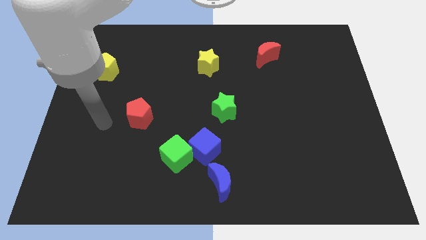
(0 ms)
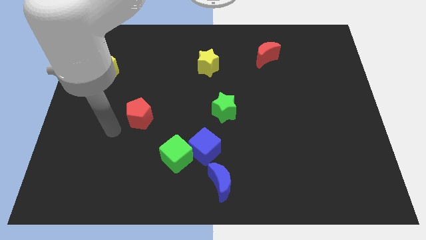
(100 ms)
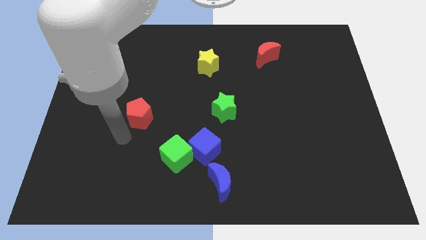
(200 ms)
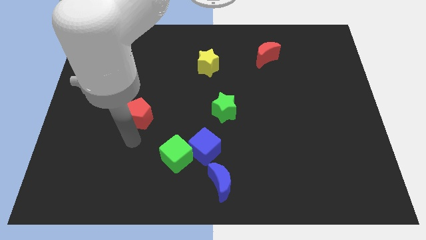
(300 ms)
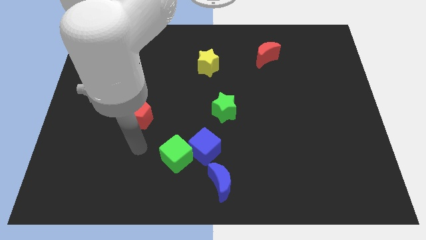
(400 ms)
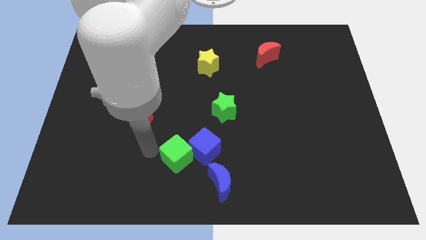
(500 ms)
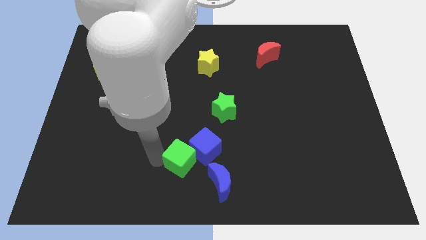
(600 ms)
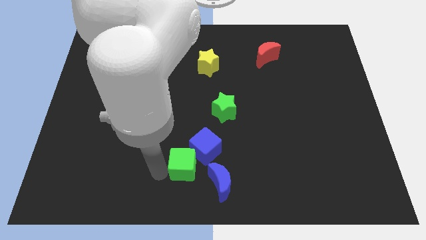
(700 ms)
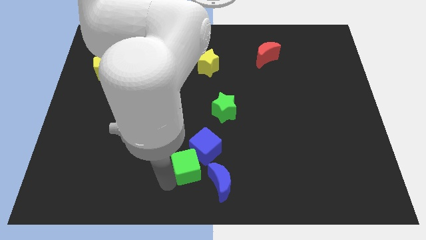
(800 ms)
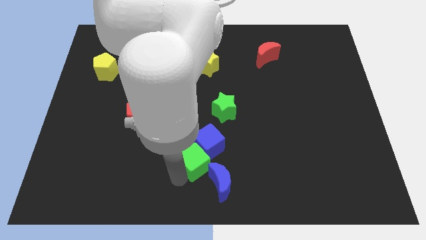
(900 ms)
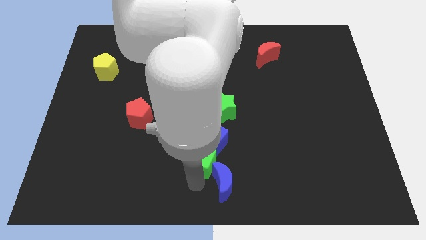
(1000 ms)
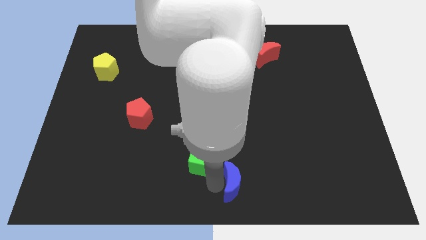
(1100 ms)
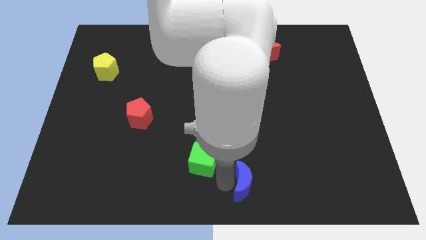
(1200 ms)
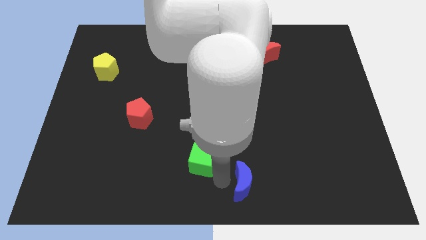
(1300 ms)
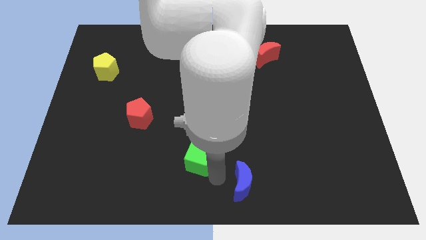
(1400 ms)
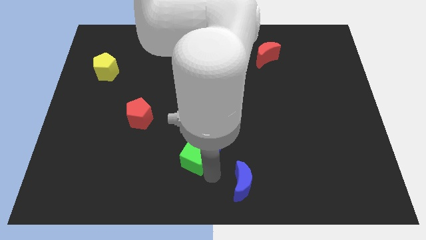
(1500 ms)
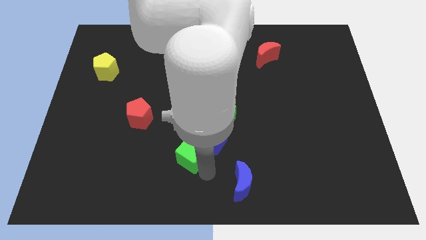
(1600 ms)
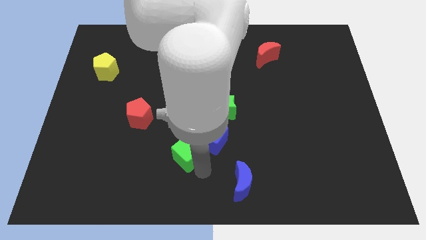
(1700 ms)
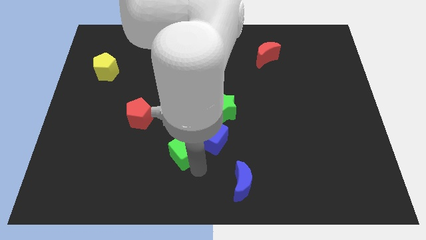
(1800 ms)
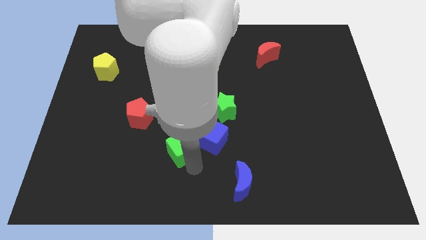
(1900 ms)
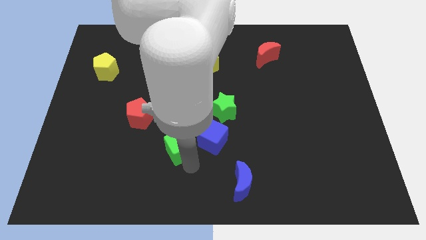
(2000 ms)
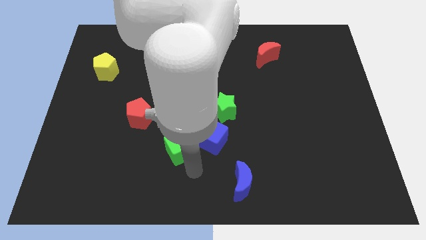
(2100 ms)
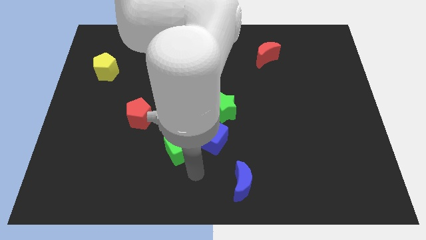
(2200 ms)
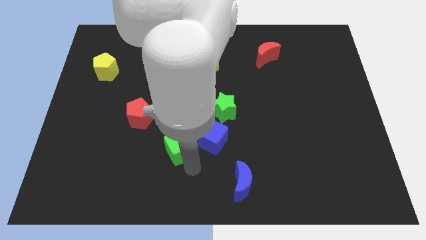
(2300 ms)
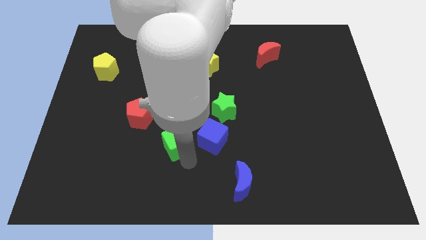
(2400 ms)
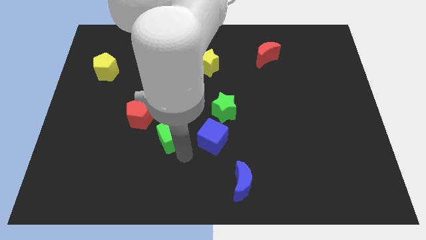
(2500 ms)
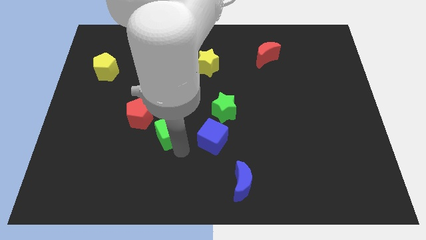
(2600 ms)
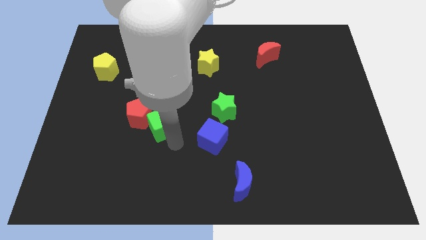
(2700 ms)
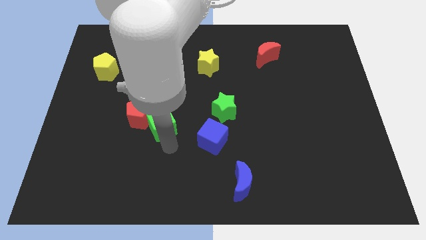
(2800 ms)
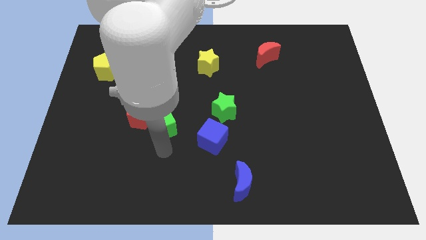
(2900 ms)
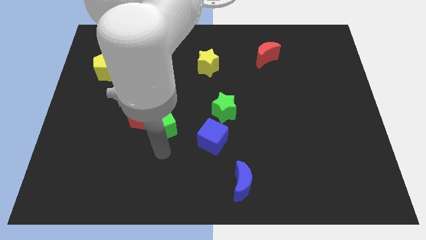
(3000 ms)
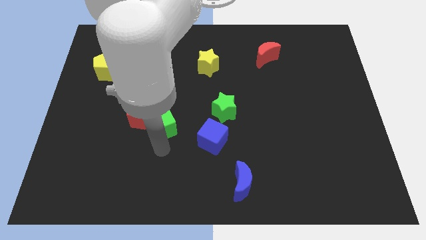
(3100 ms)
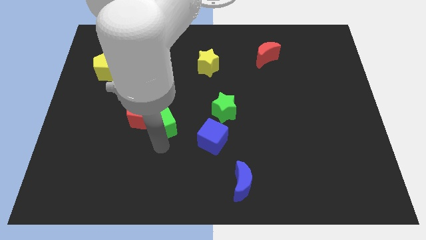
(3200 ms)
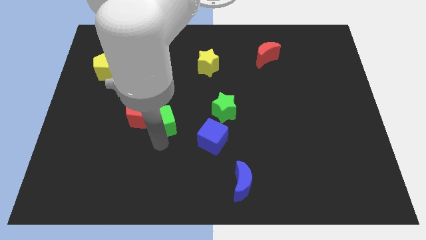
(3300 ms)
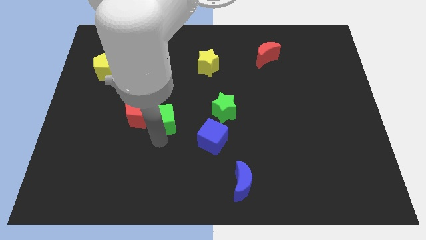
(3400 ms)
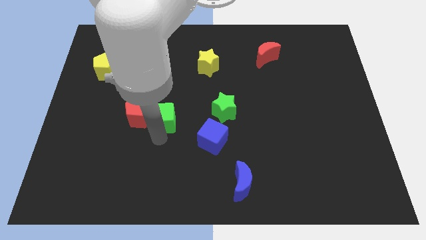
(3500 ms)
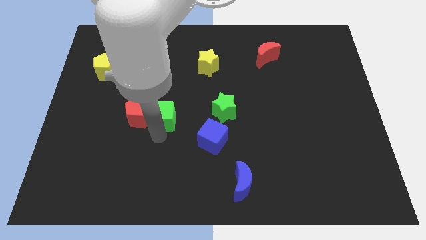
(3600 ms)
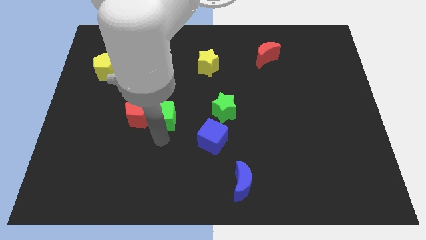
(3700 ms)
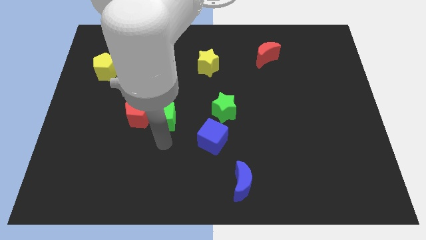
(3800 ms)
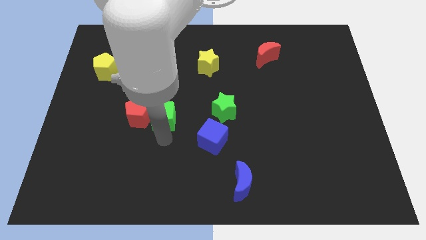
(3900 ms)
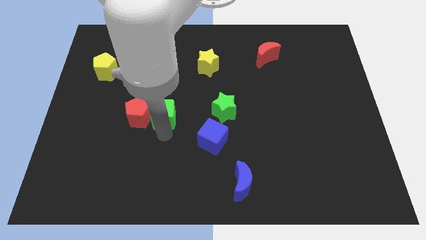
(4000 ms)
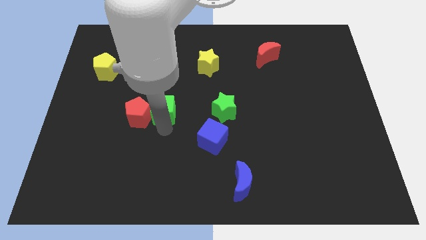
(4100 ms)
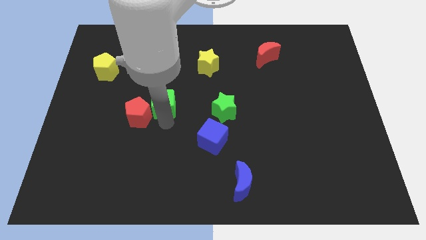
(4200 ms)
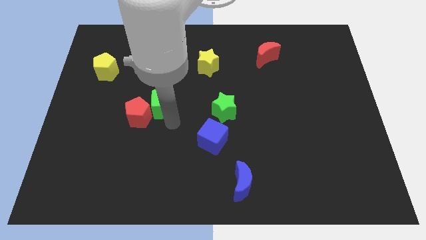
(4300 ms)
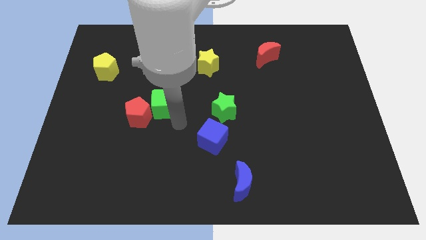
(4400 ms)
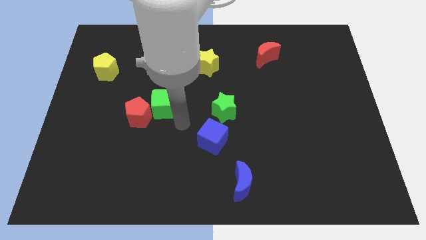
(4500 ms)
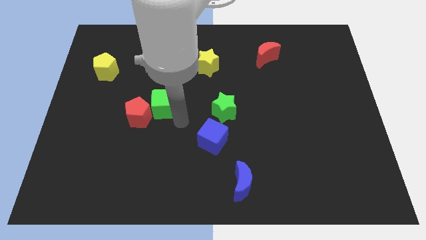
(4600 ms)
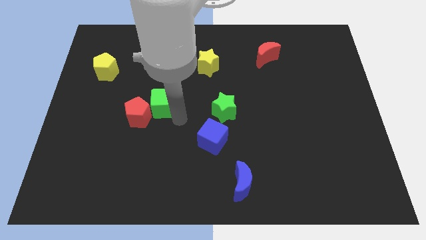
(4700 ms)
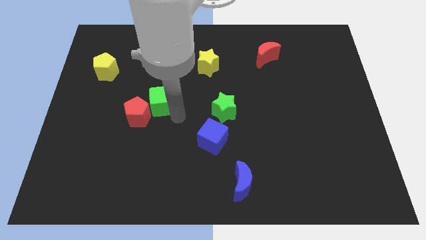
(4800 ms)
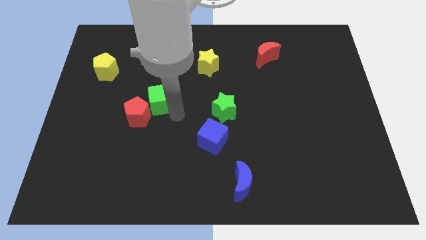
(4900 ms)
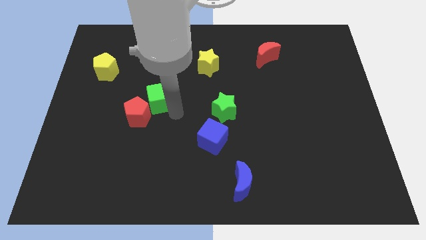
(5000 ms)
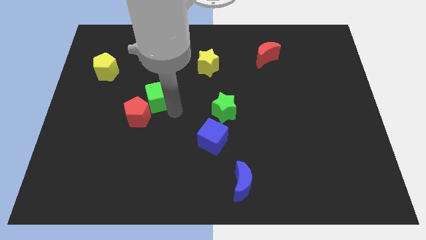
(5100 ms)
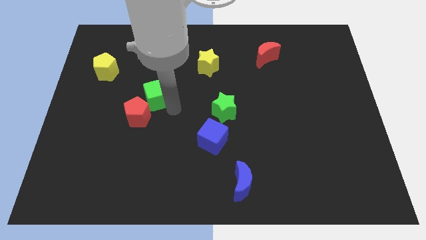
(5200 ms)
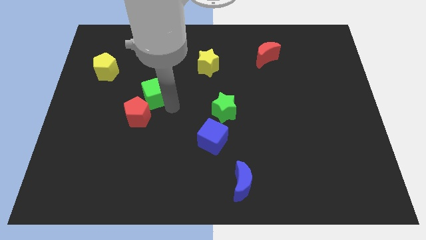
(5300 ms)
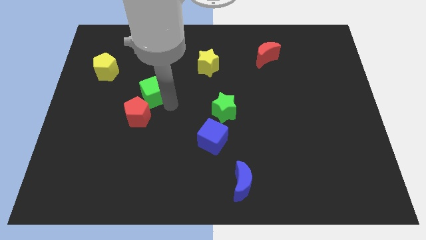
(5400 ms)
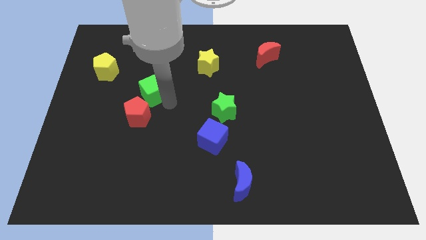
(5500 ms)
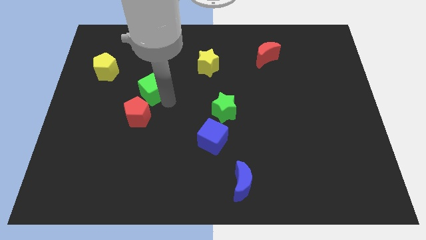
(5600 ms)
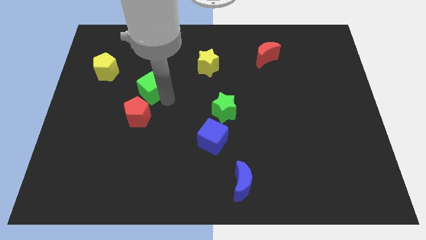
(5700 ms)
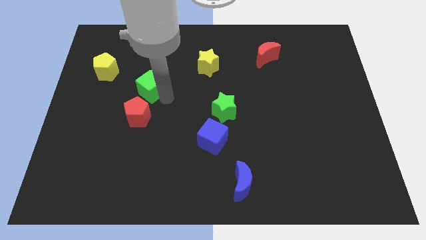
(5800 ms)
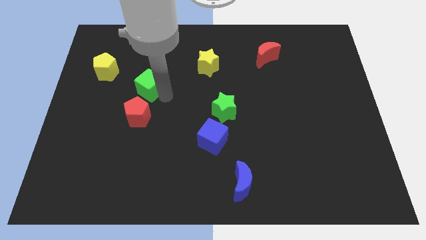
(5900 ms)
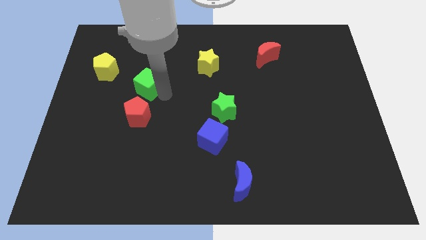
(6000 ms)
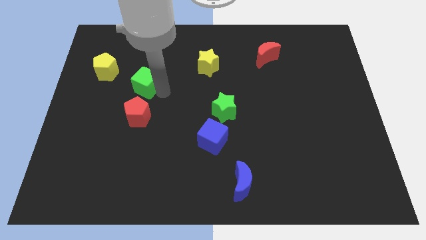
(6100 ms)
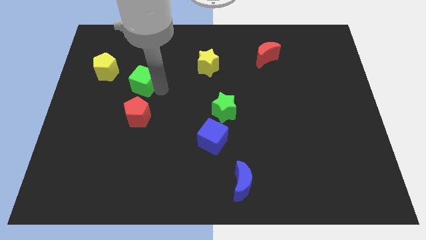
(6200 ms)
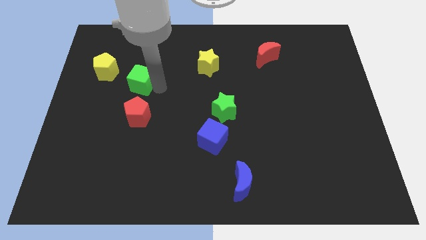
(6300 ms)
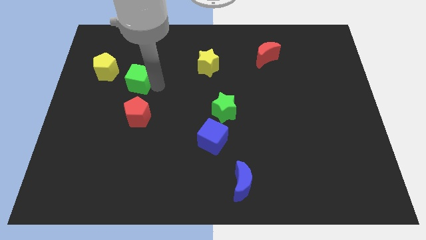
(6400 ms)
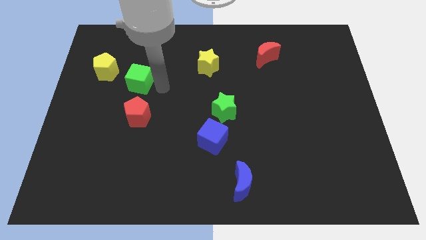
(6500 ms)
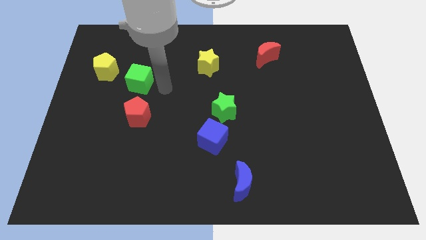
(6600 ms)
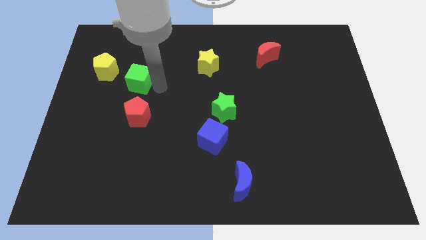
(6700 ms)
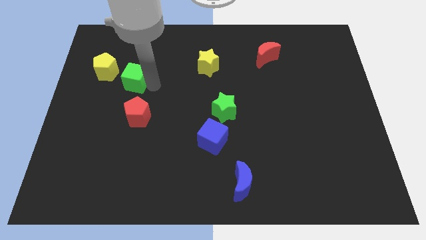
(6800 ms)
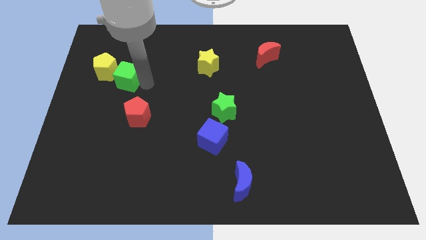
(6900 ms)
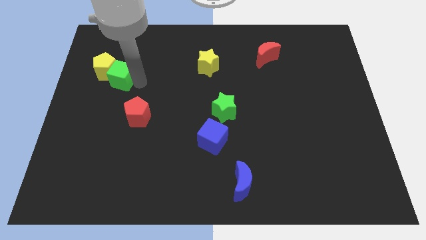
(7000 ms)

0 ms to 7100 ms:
slide the green cube close to the yellow pentagon
